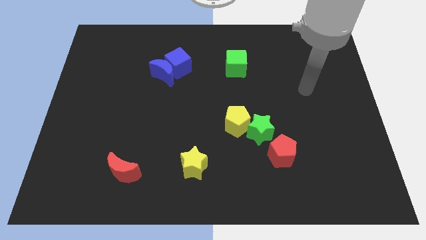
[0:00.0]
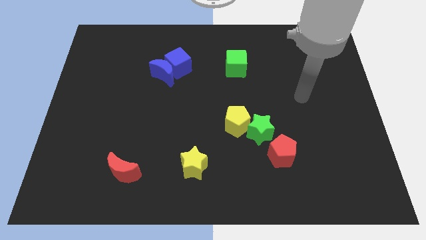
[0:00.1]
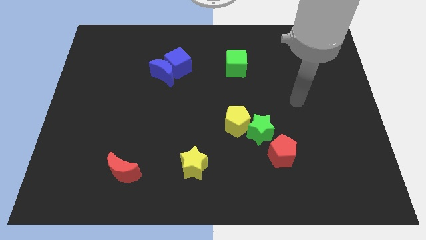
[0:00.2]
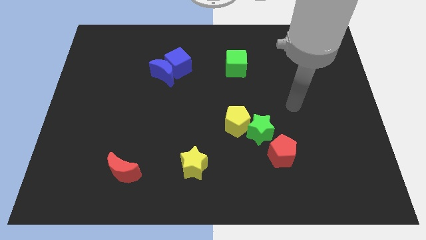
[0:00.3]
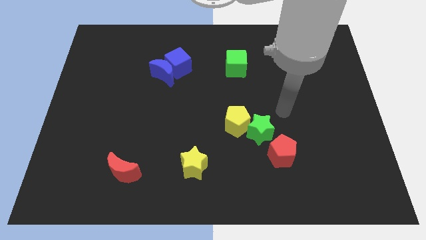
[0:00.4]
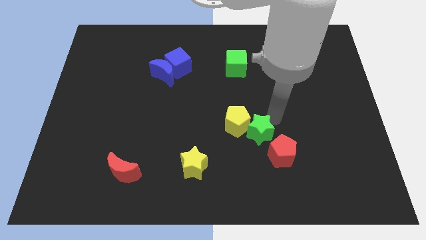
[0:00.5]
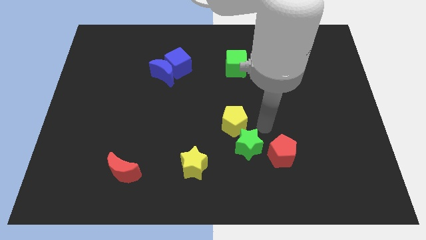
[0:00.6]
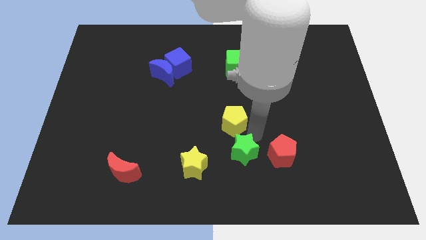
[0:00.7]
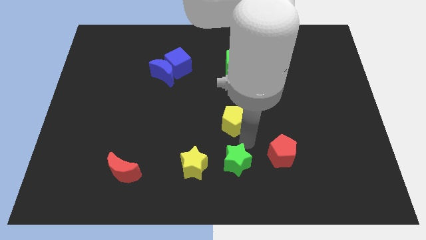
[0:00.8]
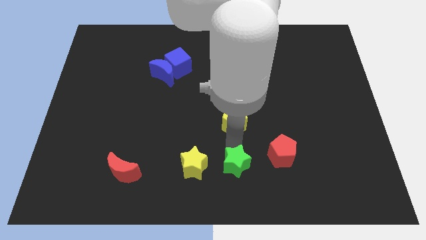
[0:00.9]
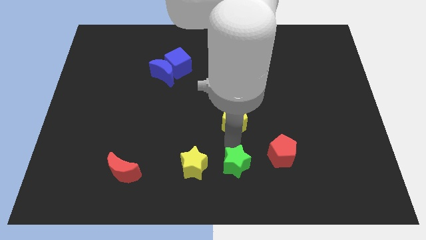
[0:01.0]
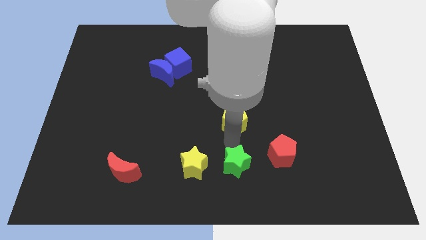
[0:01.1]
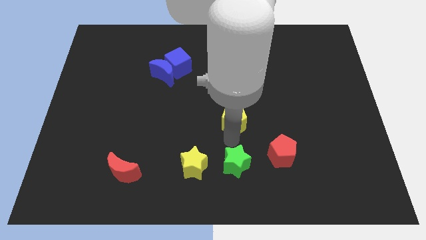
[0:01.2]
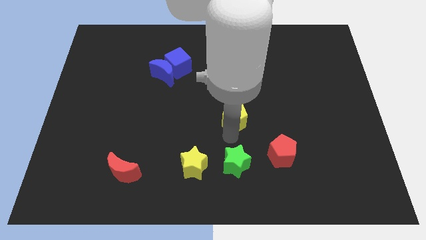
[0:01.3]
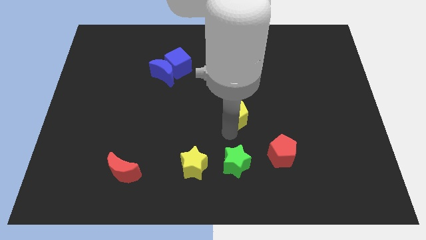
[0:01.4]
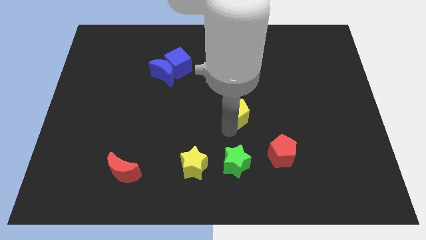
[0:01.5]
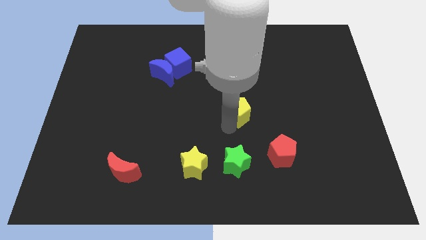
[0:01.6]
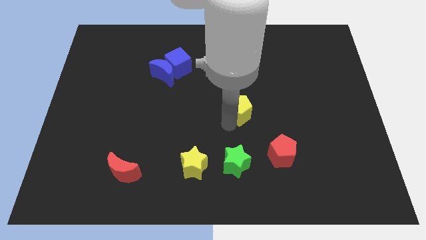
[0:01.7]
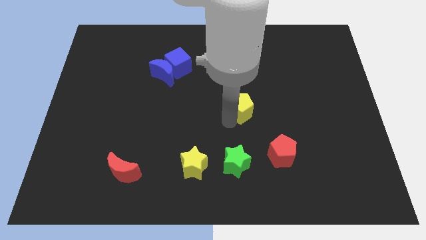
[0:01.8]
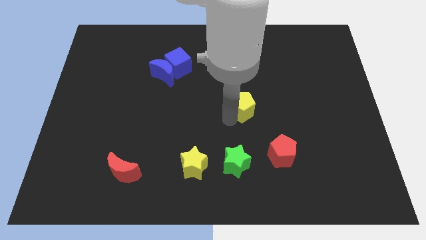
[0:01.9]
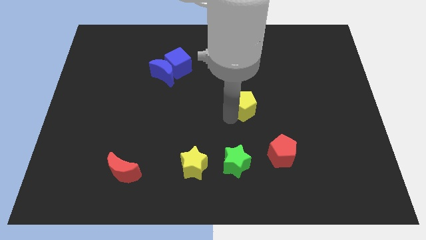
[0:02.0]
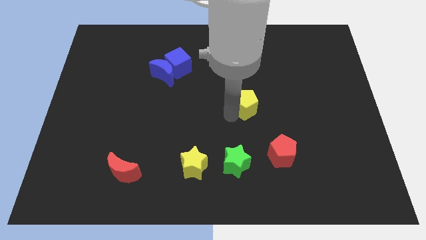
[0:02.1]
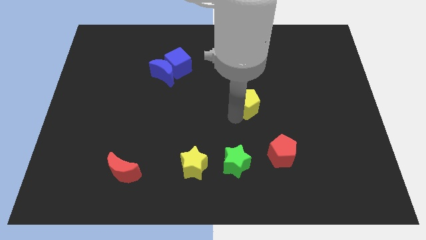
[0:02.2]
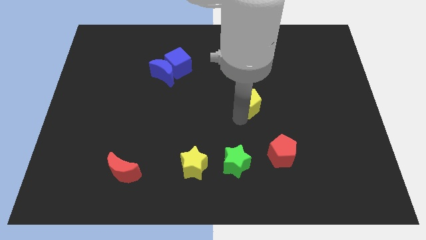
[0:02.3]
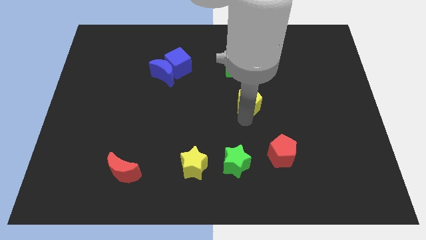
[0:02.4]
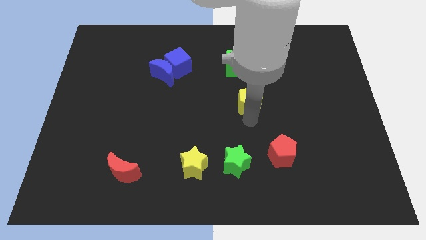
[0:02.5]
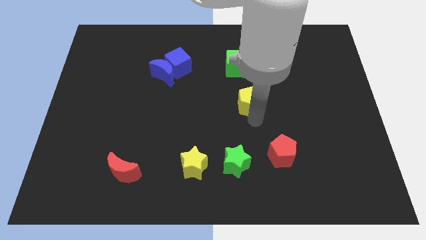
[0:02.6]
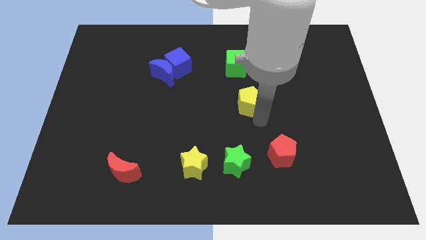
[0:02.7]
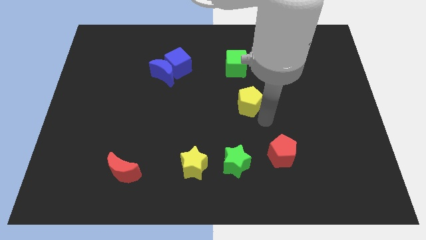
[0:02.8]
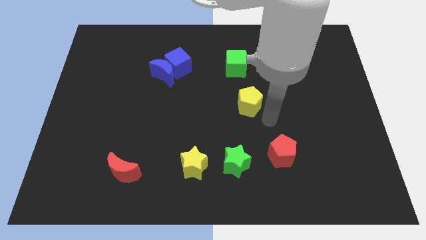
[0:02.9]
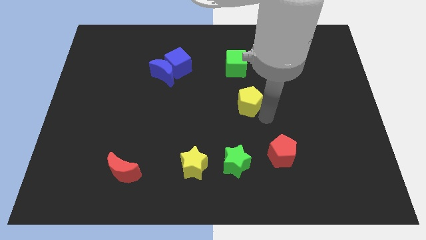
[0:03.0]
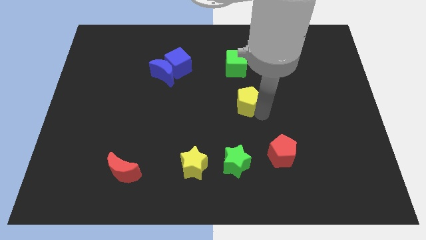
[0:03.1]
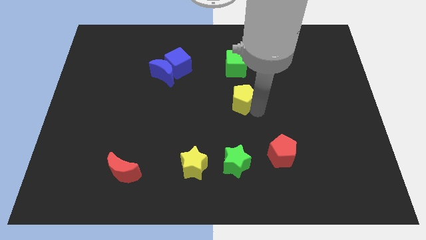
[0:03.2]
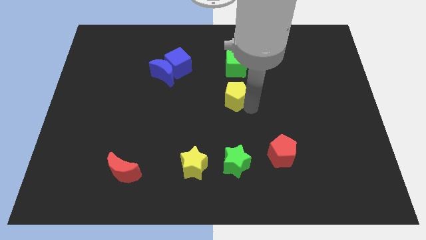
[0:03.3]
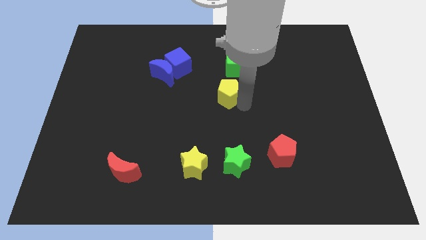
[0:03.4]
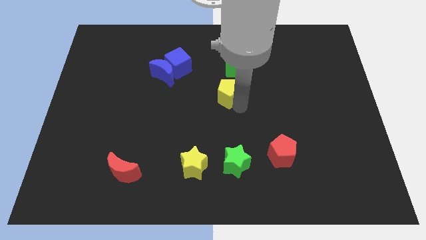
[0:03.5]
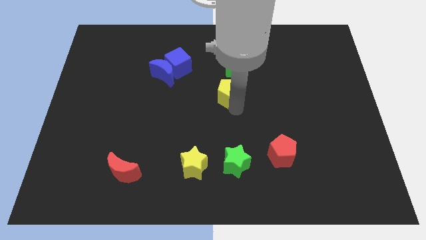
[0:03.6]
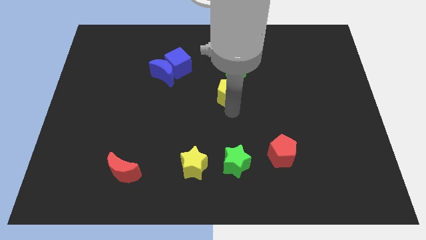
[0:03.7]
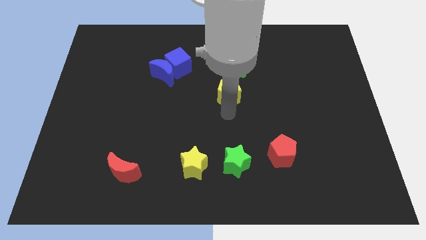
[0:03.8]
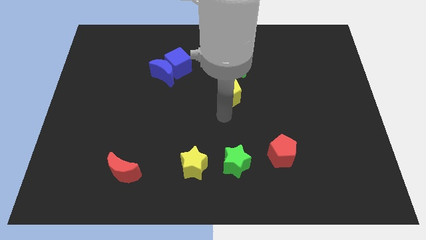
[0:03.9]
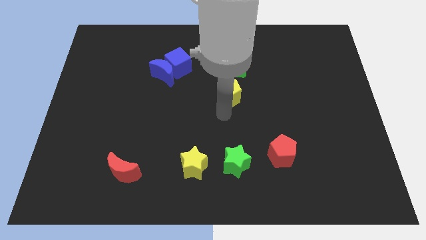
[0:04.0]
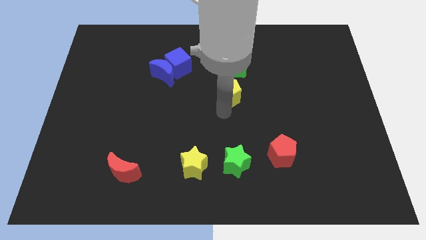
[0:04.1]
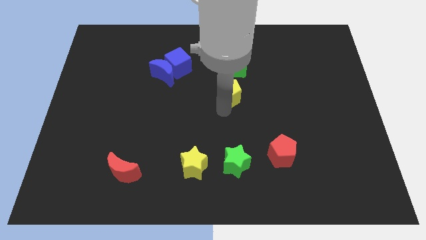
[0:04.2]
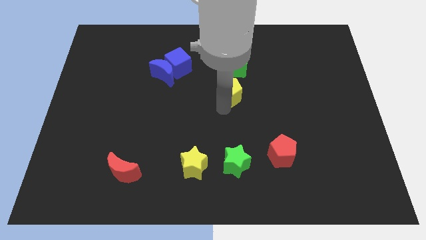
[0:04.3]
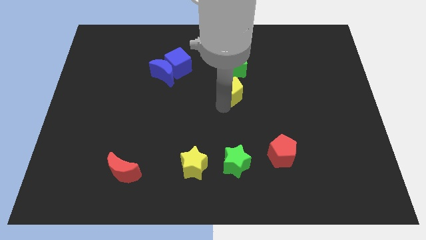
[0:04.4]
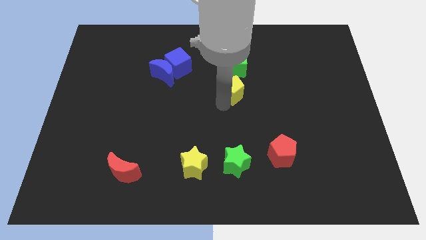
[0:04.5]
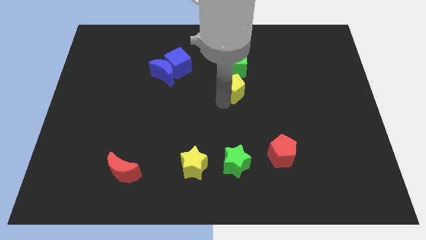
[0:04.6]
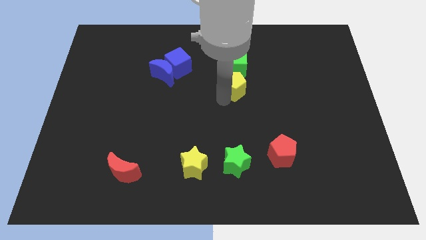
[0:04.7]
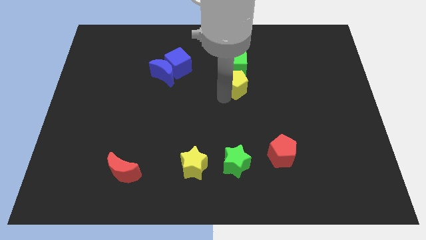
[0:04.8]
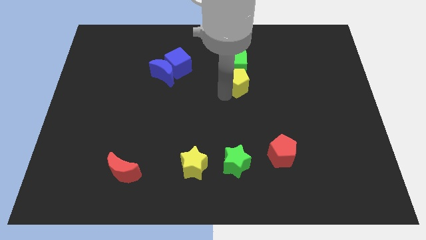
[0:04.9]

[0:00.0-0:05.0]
move the yellow pentagon towards the green cube

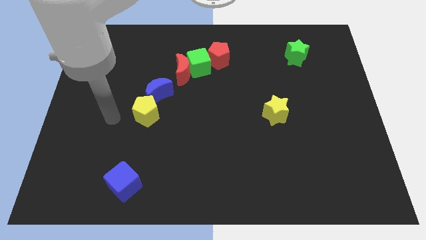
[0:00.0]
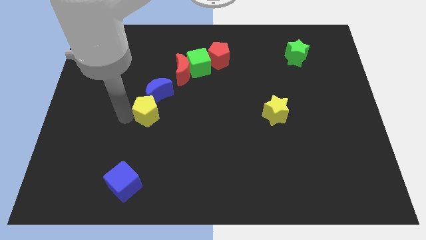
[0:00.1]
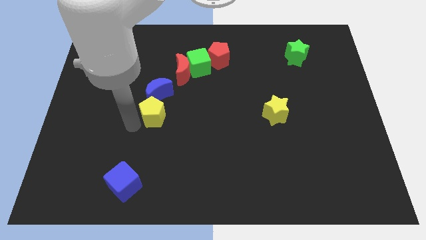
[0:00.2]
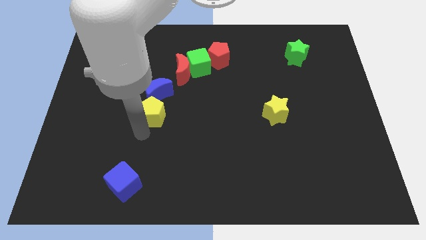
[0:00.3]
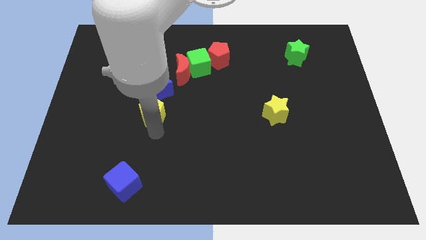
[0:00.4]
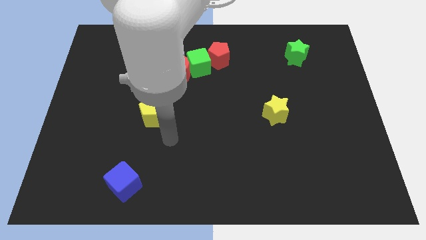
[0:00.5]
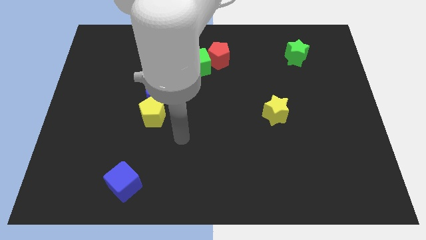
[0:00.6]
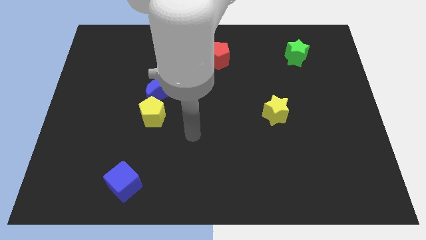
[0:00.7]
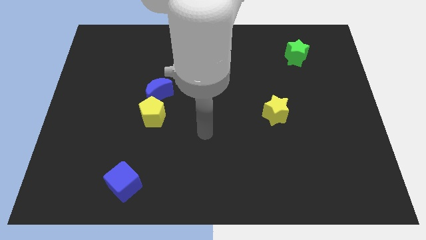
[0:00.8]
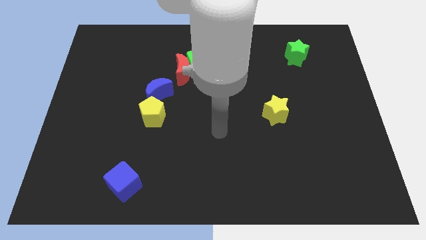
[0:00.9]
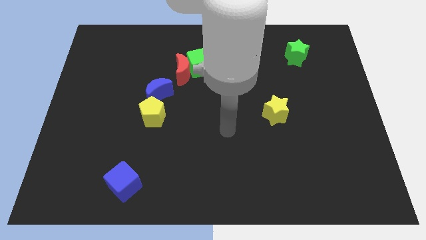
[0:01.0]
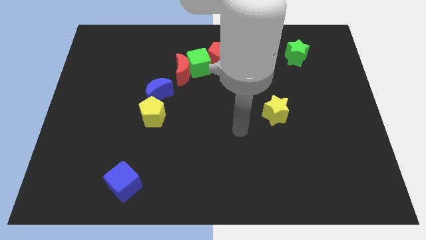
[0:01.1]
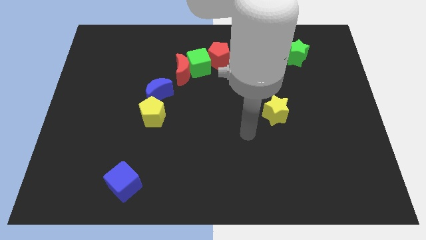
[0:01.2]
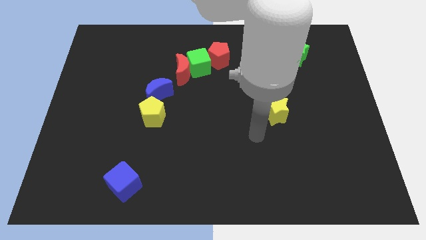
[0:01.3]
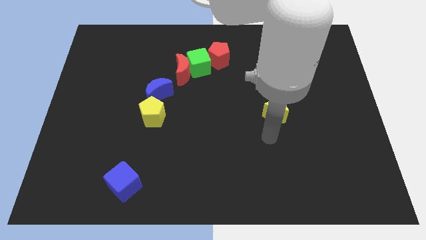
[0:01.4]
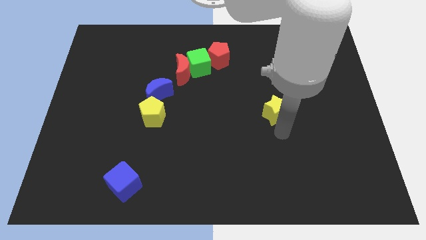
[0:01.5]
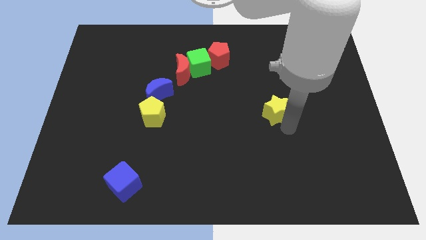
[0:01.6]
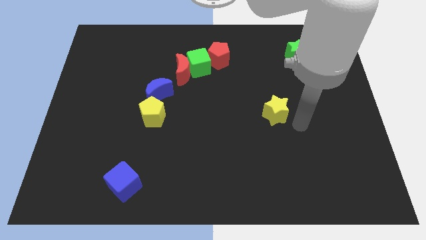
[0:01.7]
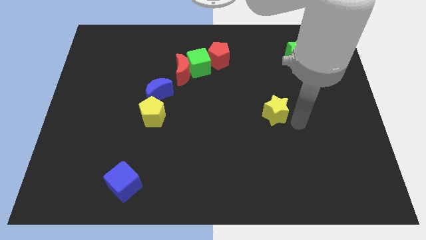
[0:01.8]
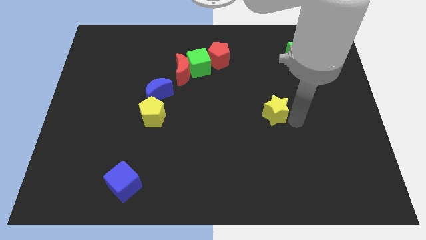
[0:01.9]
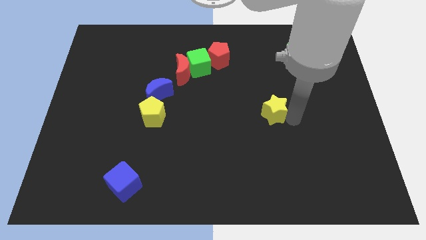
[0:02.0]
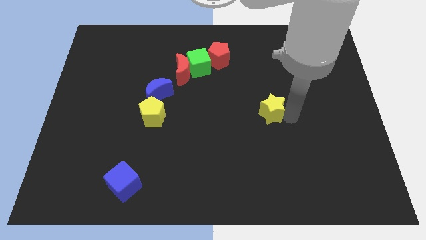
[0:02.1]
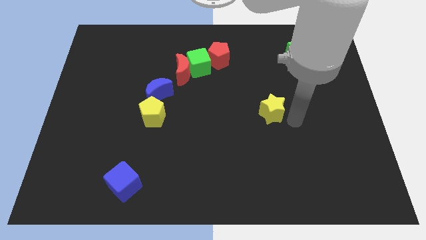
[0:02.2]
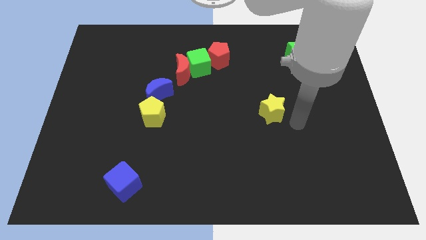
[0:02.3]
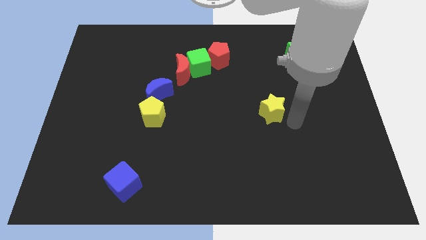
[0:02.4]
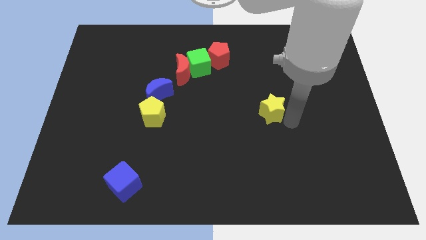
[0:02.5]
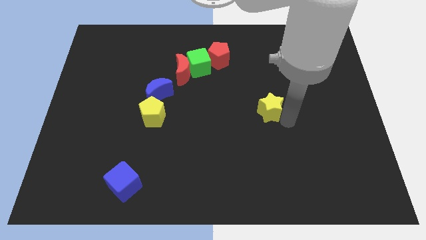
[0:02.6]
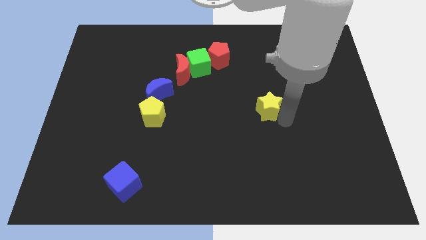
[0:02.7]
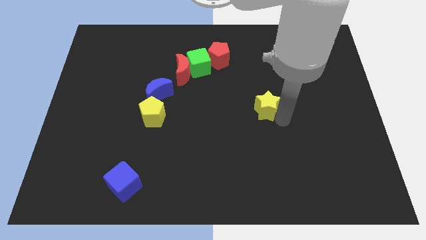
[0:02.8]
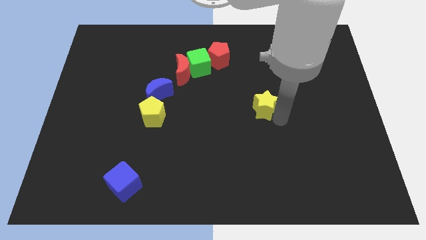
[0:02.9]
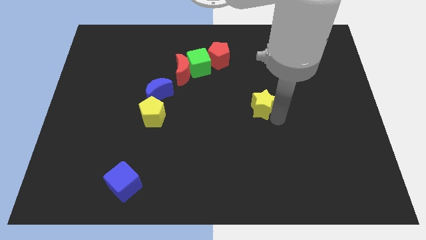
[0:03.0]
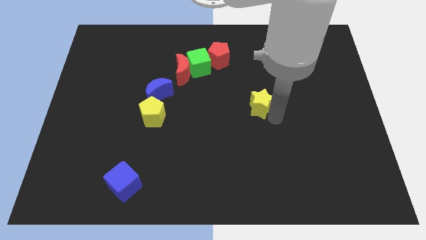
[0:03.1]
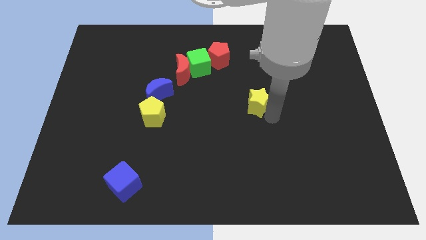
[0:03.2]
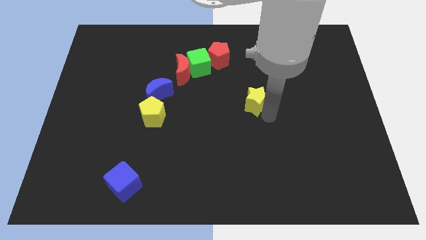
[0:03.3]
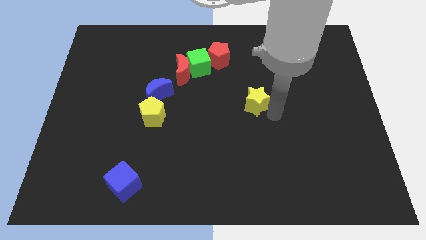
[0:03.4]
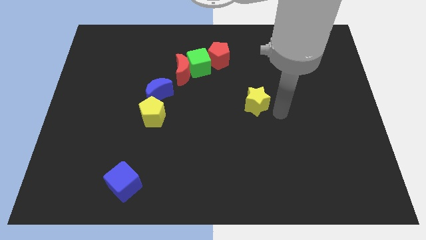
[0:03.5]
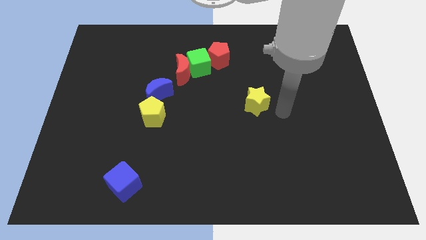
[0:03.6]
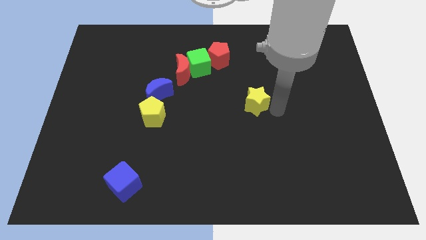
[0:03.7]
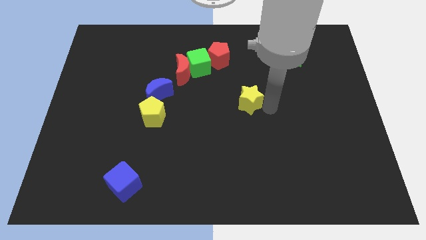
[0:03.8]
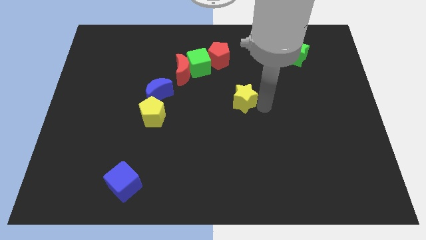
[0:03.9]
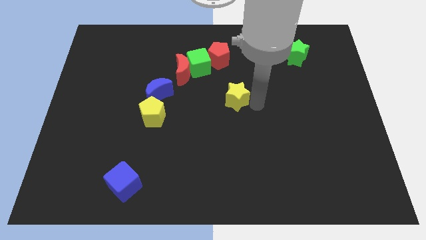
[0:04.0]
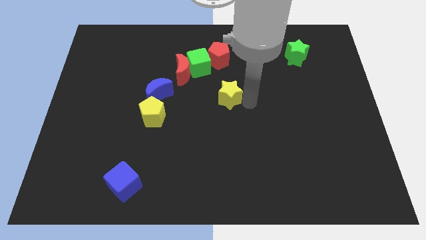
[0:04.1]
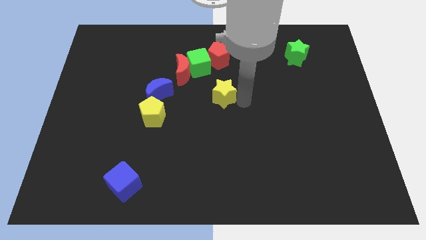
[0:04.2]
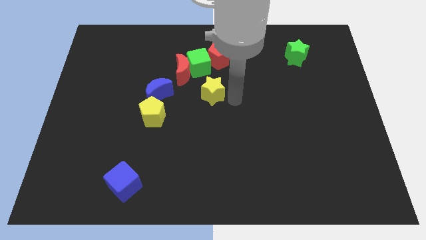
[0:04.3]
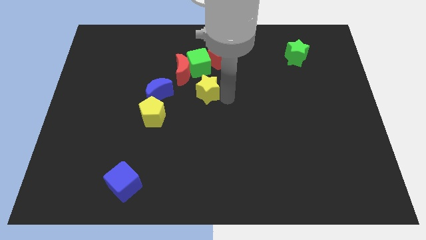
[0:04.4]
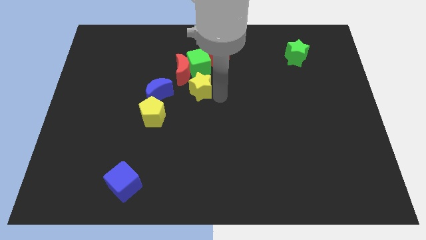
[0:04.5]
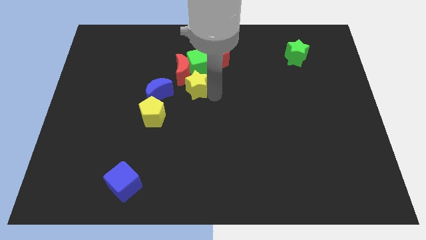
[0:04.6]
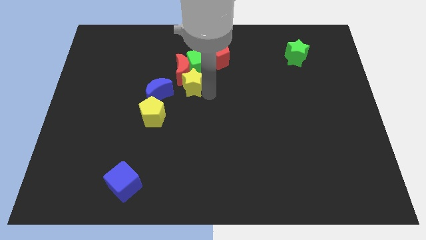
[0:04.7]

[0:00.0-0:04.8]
push the yellow star towards the red moon
